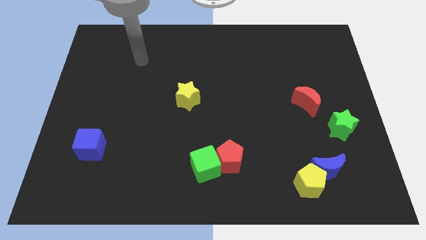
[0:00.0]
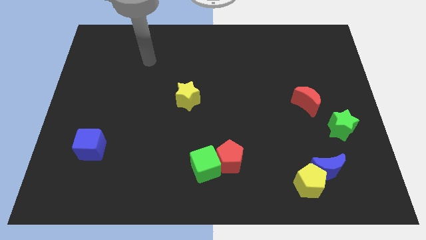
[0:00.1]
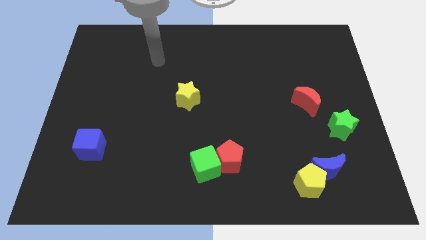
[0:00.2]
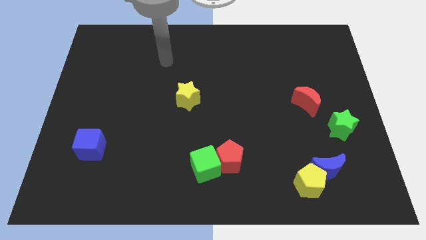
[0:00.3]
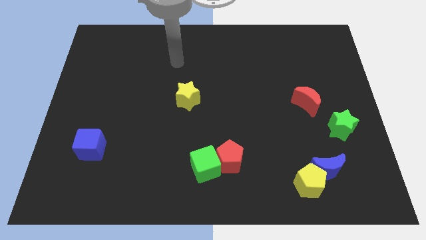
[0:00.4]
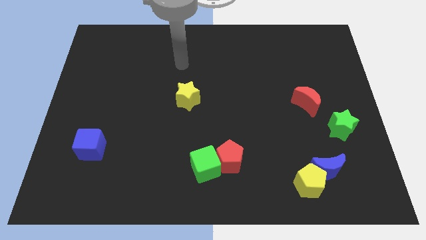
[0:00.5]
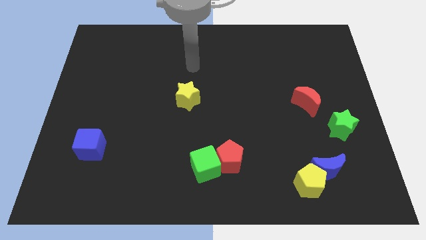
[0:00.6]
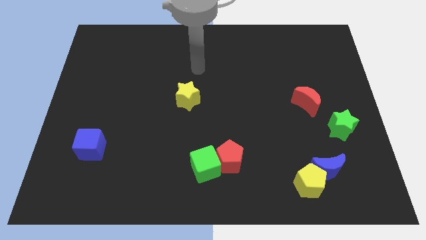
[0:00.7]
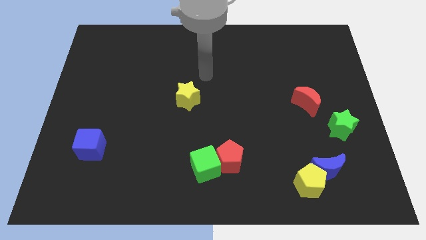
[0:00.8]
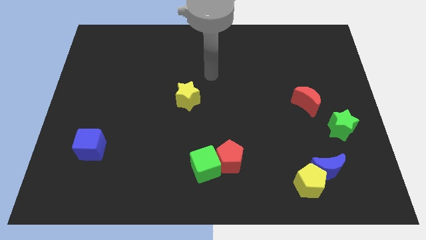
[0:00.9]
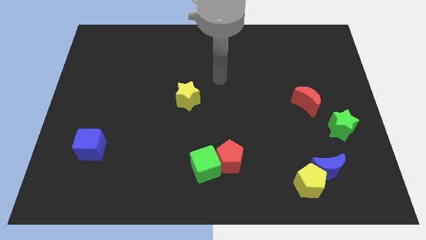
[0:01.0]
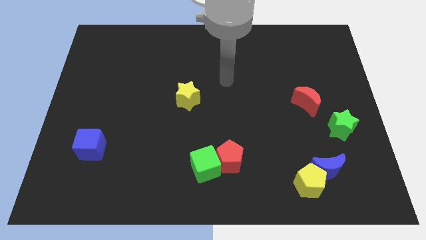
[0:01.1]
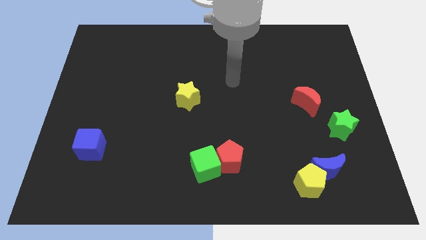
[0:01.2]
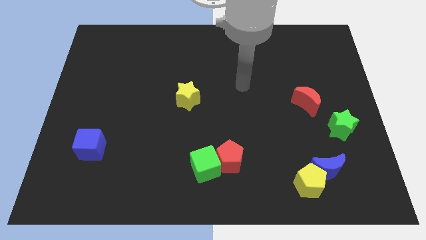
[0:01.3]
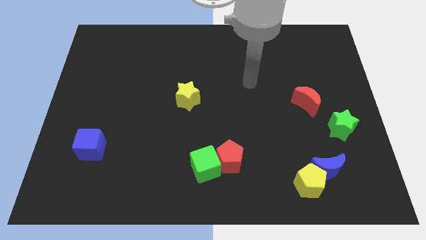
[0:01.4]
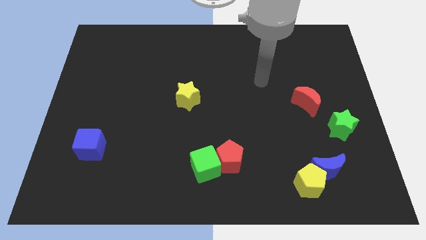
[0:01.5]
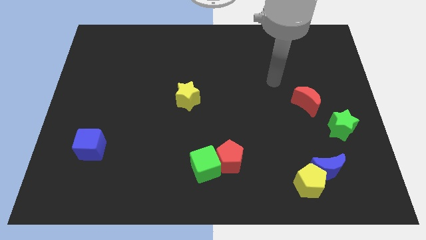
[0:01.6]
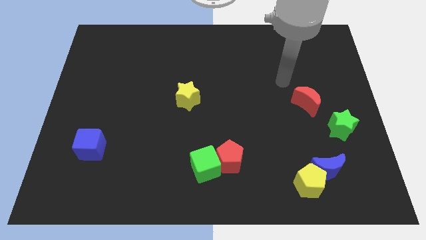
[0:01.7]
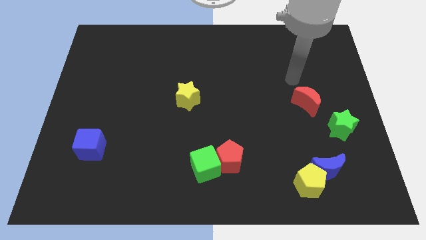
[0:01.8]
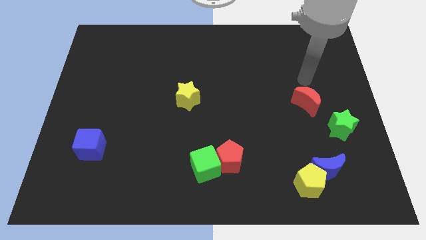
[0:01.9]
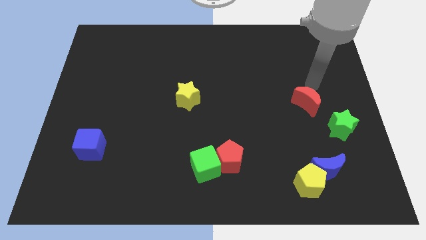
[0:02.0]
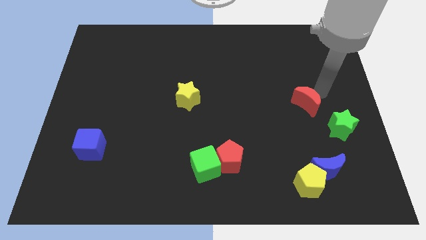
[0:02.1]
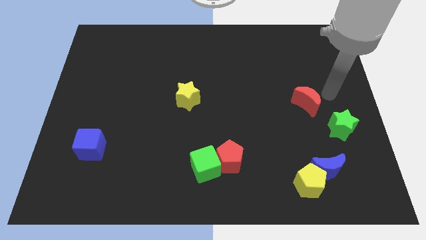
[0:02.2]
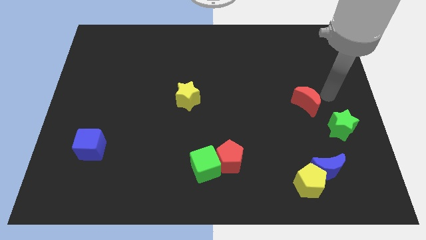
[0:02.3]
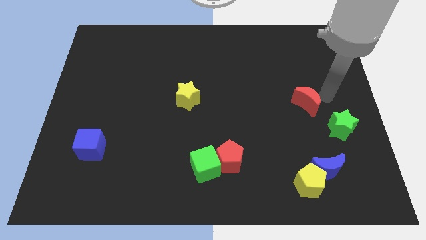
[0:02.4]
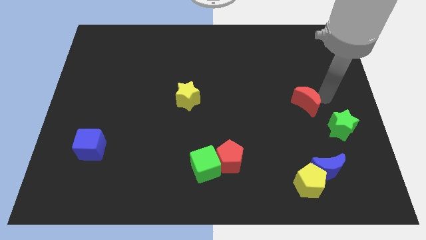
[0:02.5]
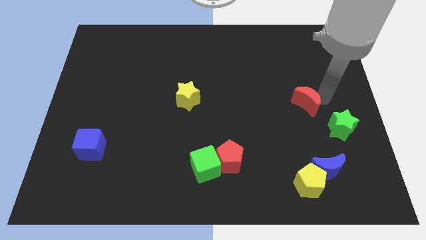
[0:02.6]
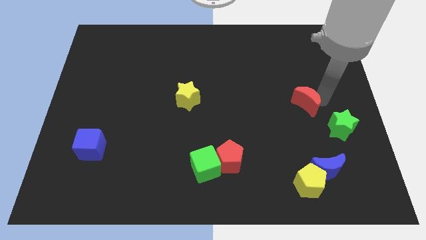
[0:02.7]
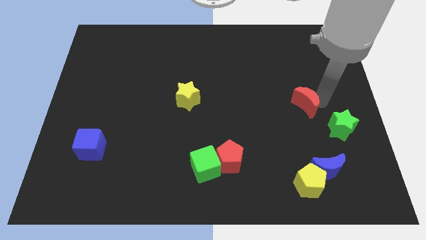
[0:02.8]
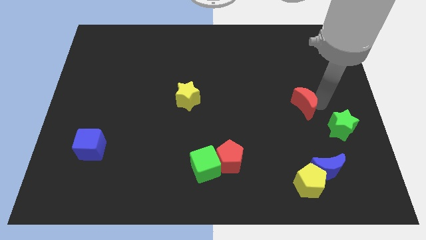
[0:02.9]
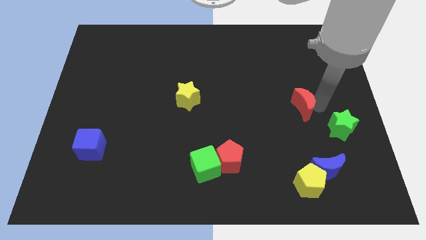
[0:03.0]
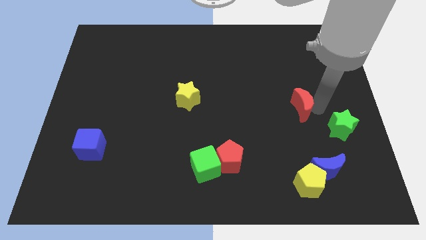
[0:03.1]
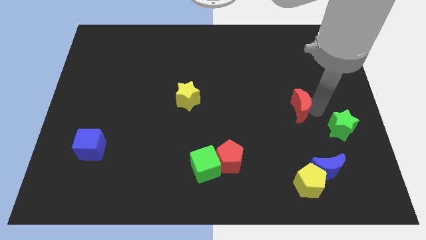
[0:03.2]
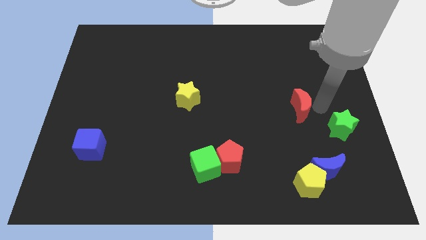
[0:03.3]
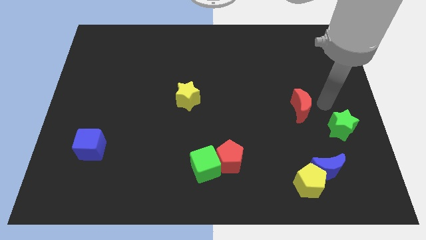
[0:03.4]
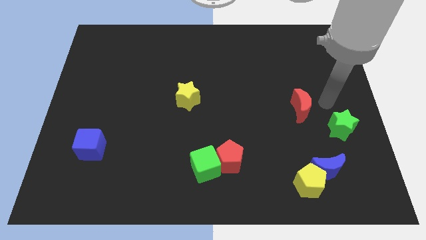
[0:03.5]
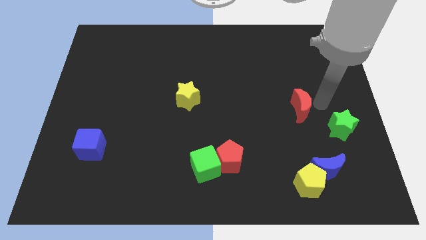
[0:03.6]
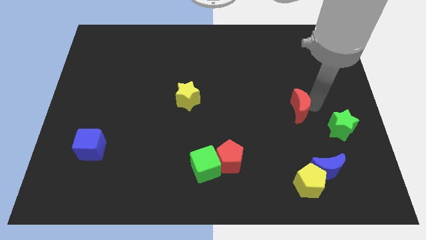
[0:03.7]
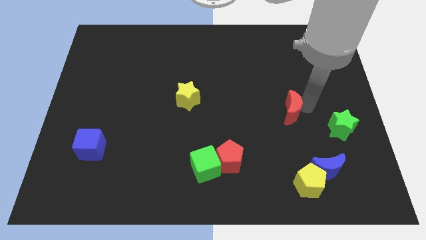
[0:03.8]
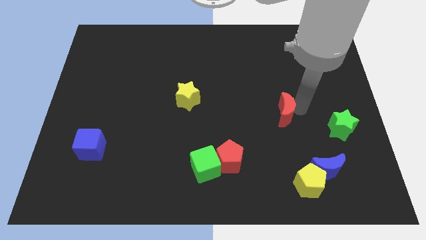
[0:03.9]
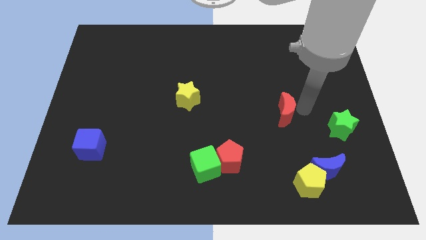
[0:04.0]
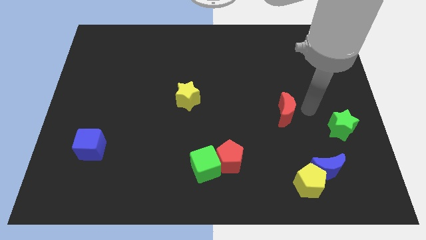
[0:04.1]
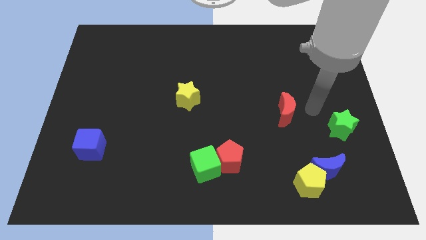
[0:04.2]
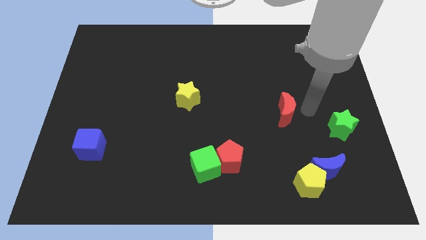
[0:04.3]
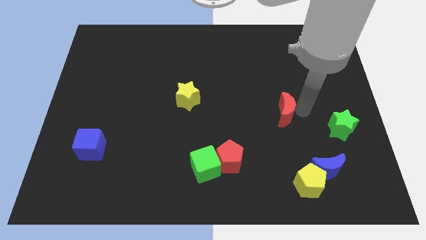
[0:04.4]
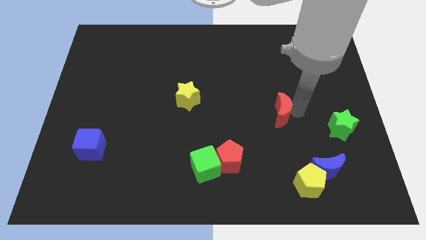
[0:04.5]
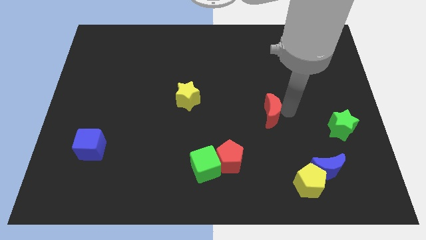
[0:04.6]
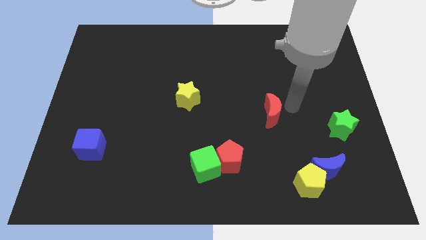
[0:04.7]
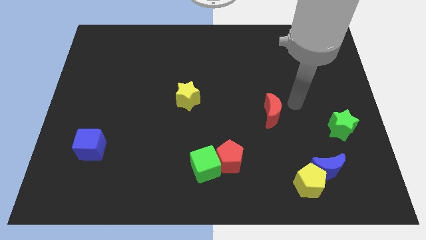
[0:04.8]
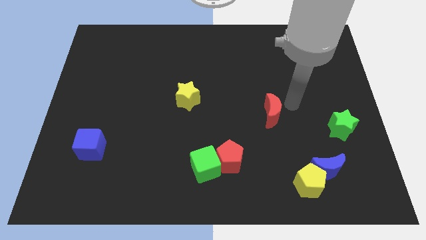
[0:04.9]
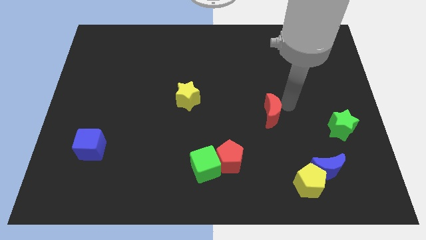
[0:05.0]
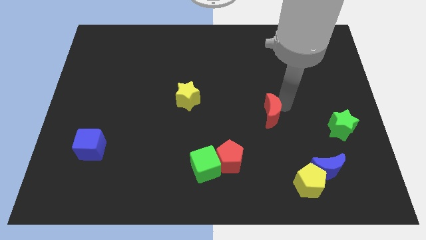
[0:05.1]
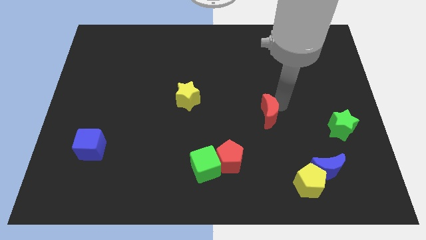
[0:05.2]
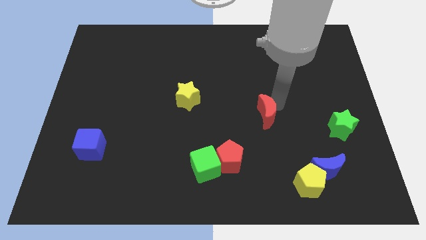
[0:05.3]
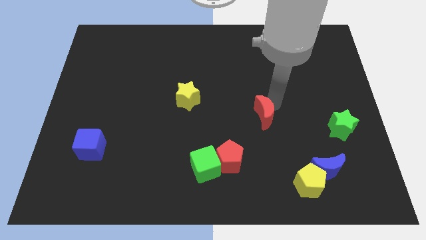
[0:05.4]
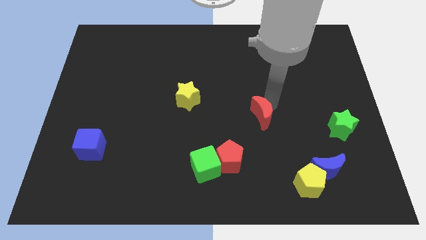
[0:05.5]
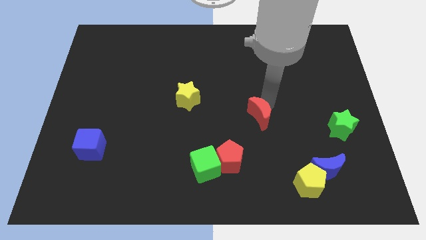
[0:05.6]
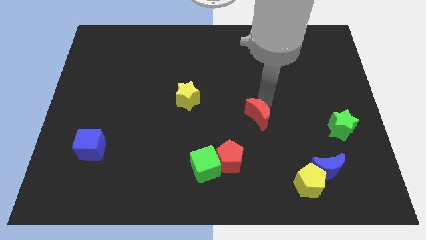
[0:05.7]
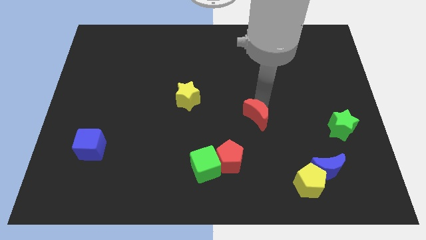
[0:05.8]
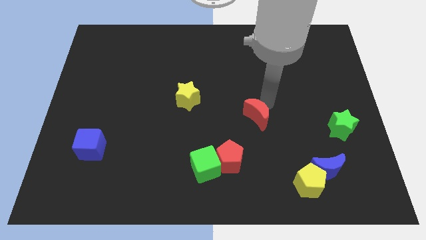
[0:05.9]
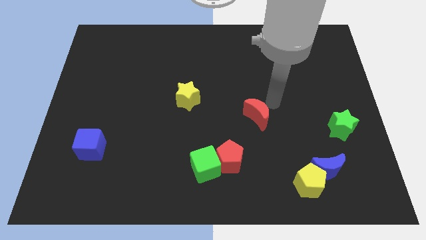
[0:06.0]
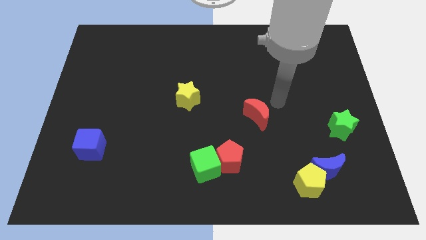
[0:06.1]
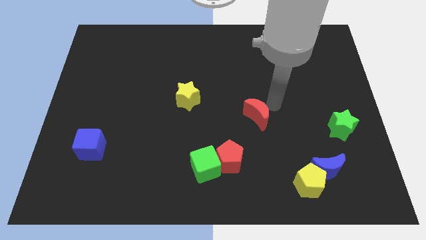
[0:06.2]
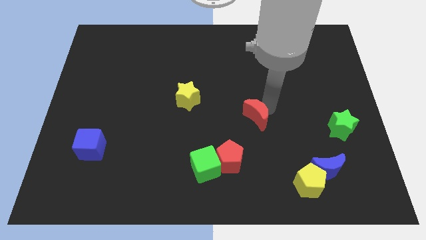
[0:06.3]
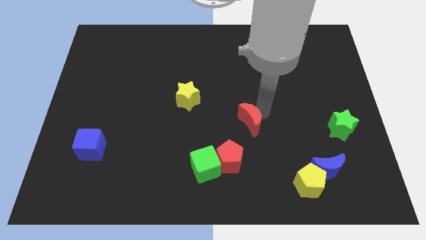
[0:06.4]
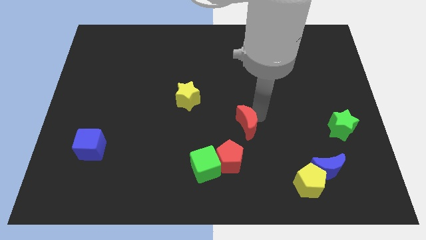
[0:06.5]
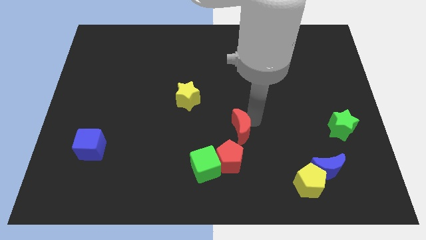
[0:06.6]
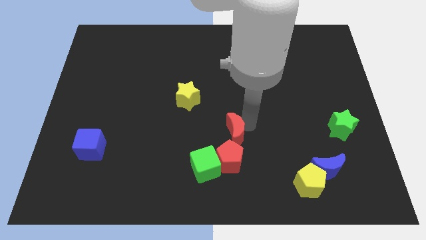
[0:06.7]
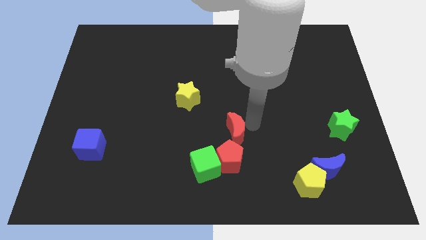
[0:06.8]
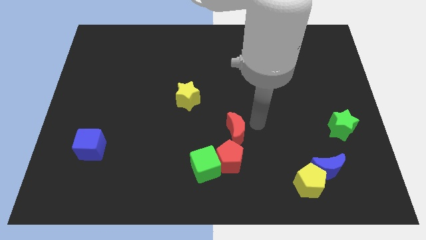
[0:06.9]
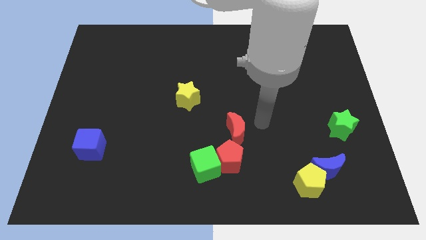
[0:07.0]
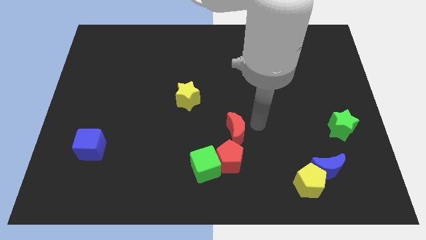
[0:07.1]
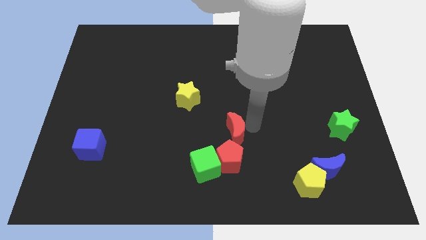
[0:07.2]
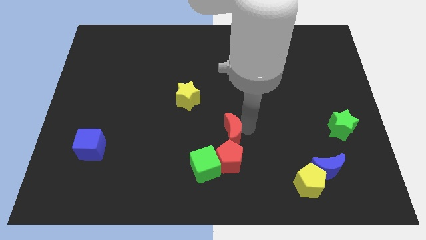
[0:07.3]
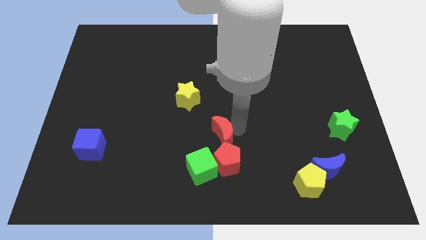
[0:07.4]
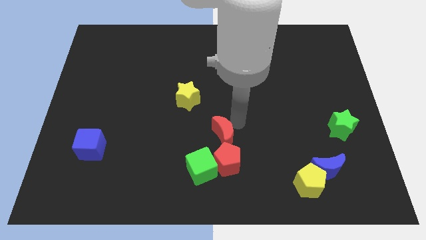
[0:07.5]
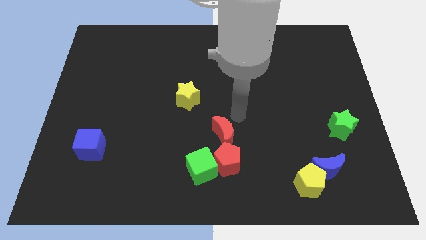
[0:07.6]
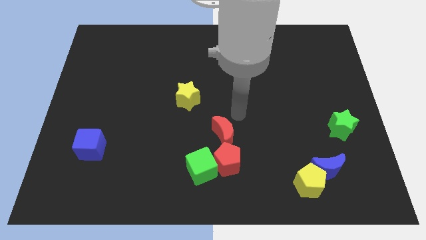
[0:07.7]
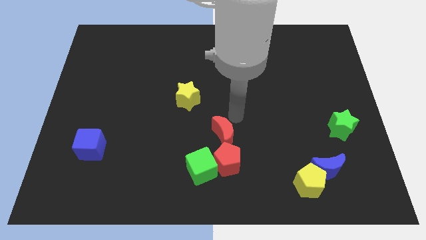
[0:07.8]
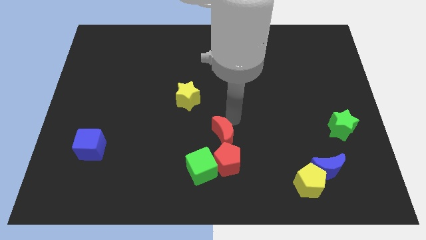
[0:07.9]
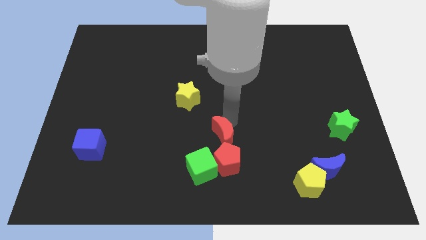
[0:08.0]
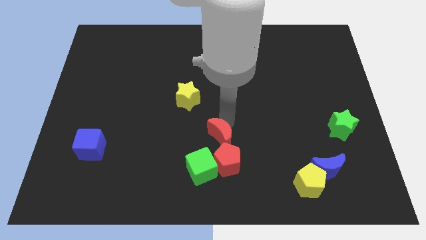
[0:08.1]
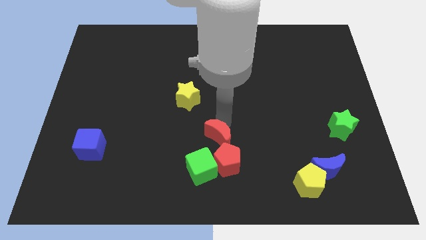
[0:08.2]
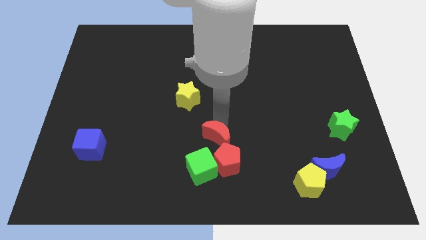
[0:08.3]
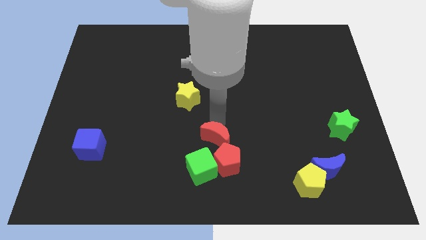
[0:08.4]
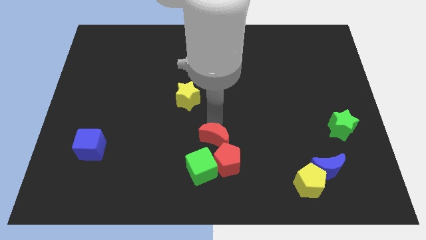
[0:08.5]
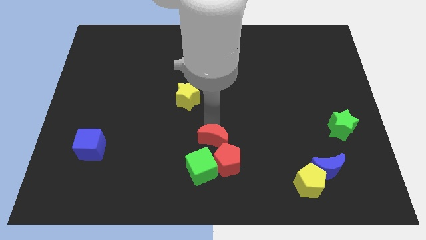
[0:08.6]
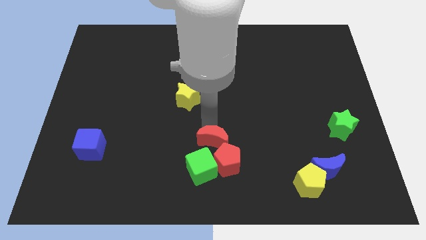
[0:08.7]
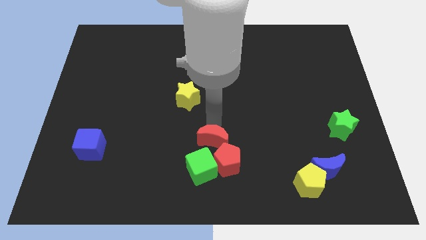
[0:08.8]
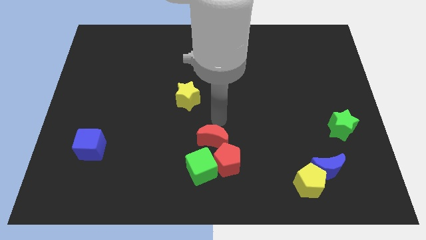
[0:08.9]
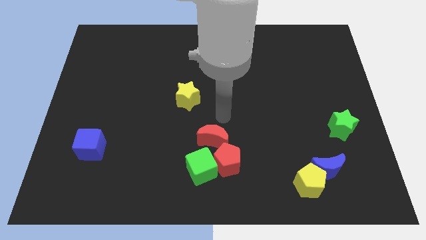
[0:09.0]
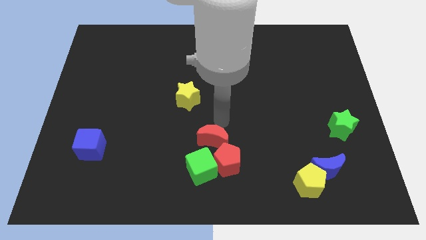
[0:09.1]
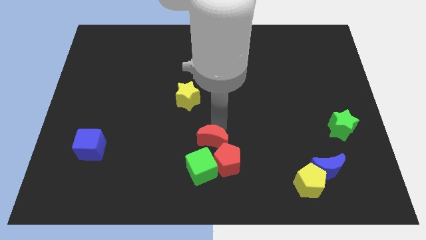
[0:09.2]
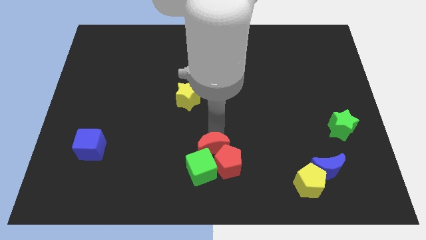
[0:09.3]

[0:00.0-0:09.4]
put the red moon towards the green cube
